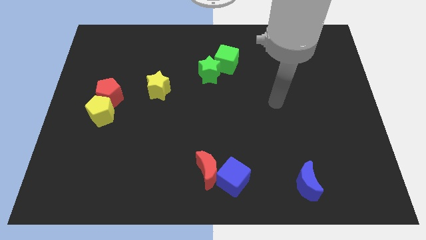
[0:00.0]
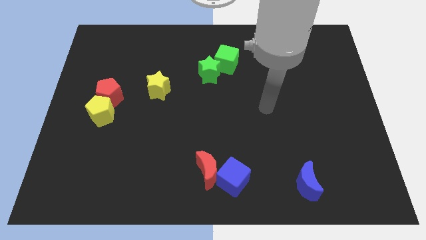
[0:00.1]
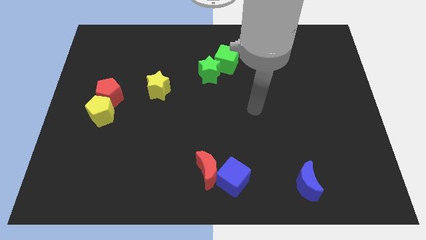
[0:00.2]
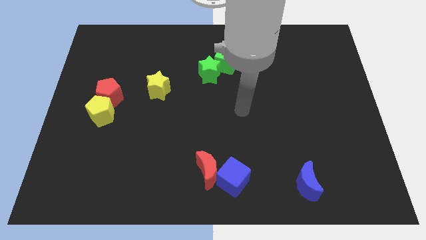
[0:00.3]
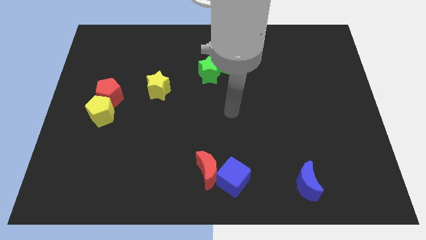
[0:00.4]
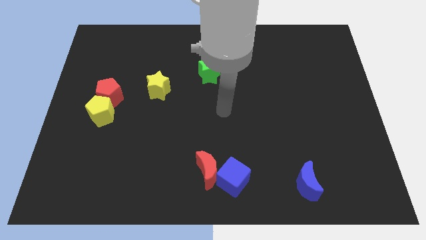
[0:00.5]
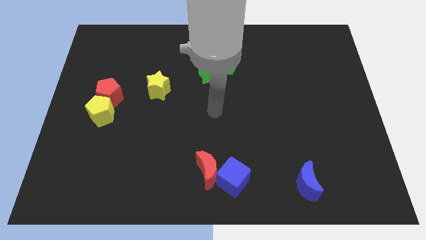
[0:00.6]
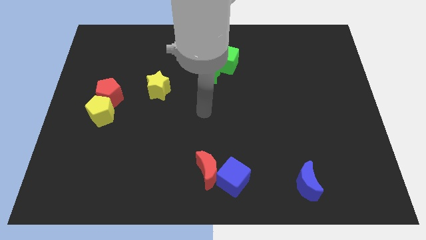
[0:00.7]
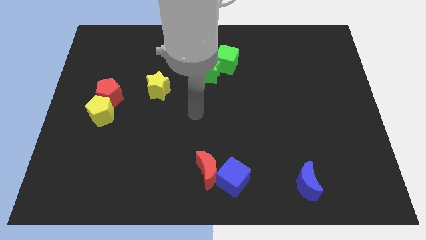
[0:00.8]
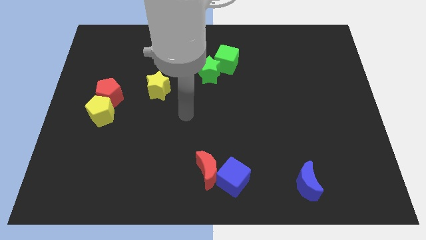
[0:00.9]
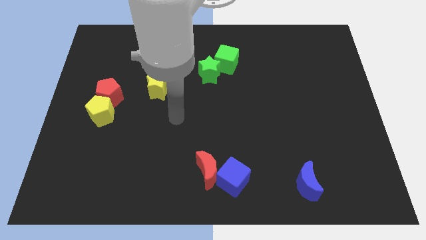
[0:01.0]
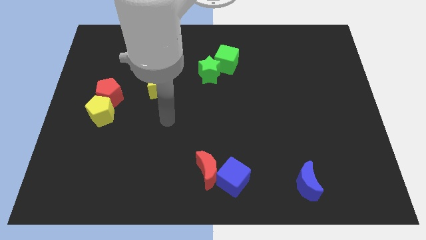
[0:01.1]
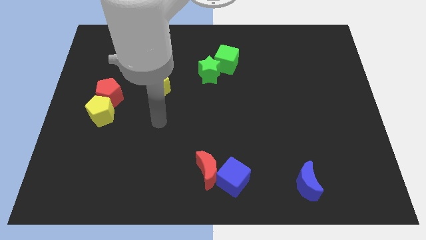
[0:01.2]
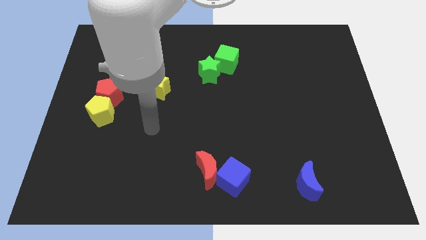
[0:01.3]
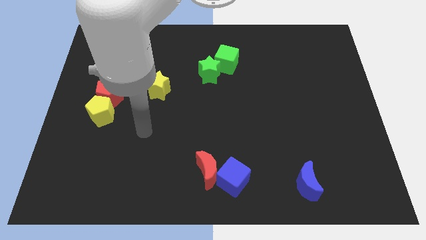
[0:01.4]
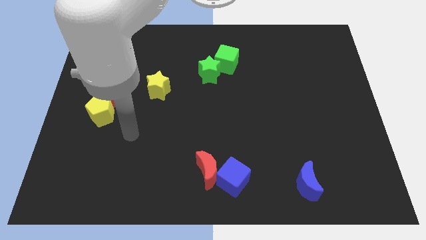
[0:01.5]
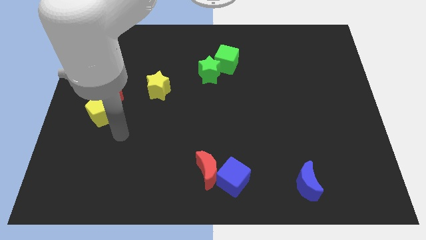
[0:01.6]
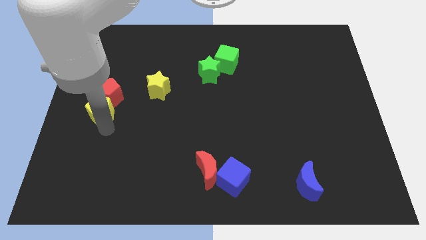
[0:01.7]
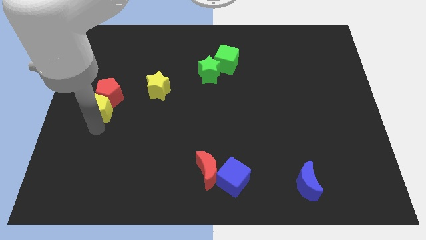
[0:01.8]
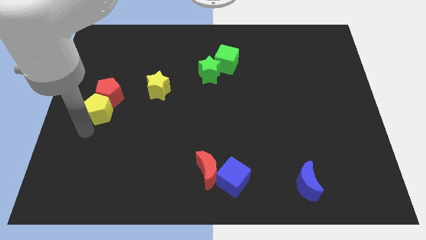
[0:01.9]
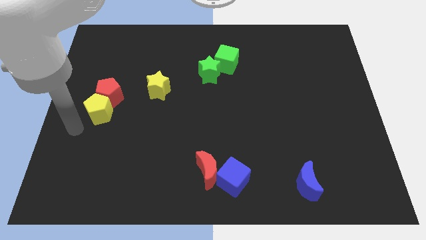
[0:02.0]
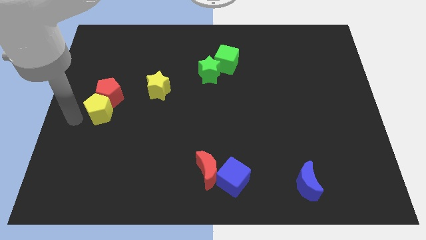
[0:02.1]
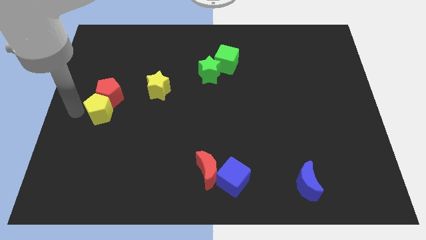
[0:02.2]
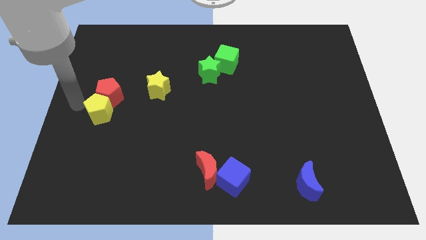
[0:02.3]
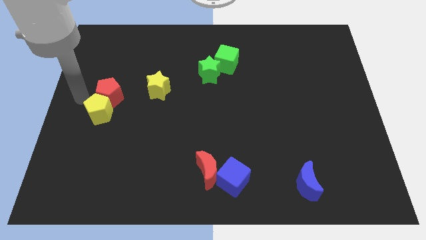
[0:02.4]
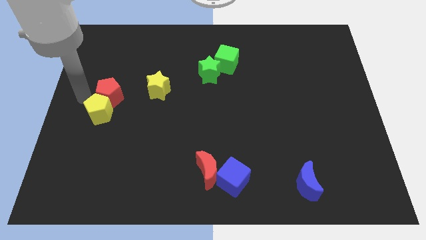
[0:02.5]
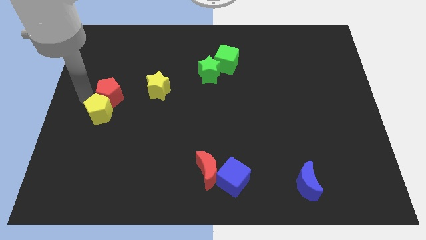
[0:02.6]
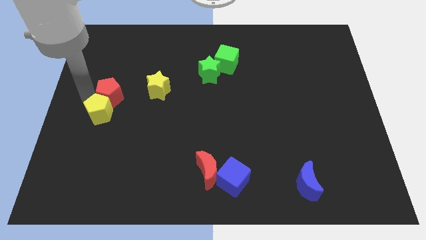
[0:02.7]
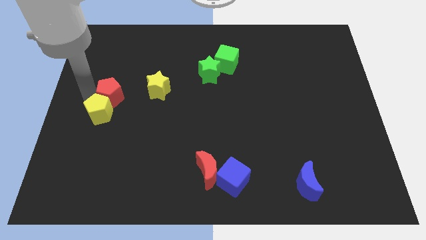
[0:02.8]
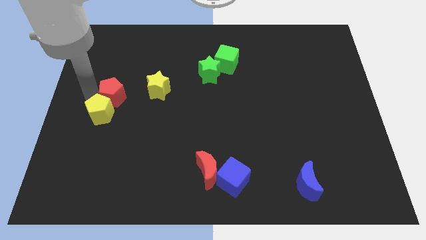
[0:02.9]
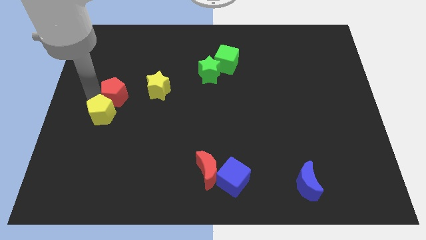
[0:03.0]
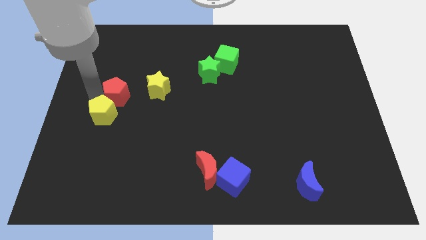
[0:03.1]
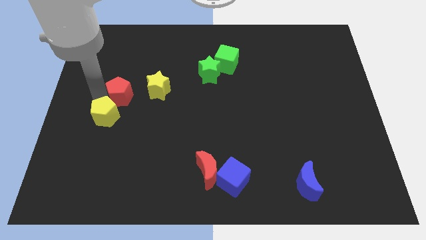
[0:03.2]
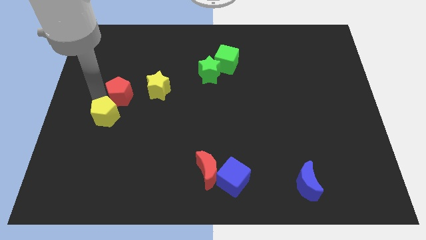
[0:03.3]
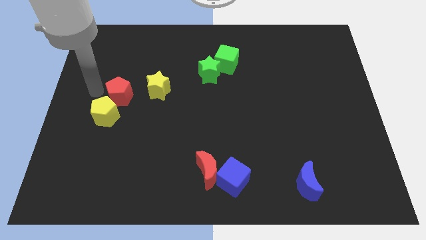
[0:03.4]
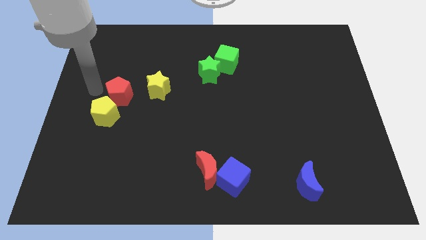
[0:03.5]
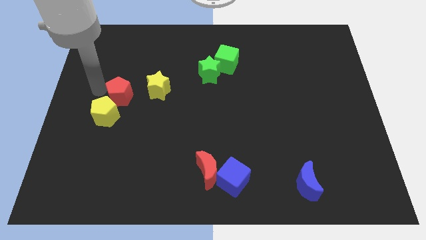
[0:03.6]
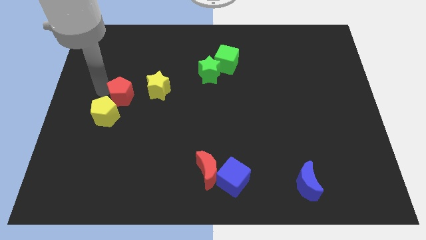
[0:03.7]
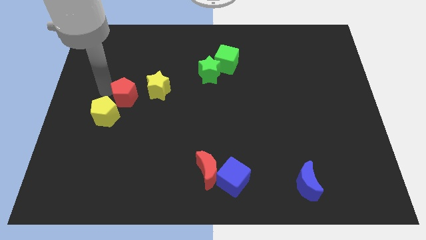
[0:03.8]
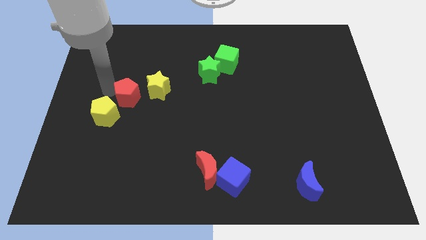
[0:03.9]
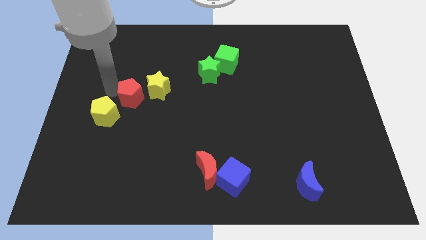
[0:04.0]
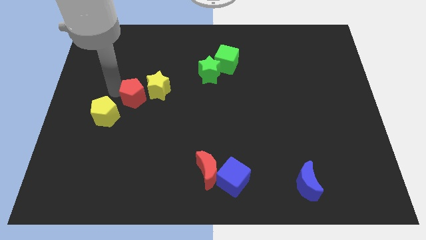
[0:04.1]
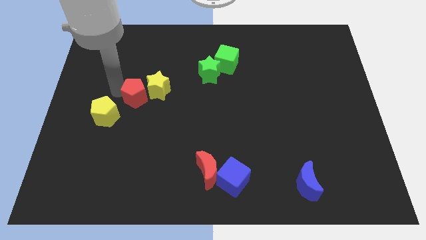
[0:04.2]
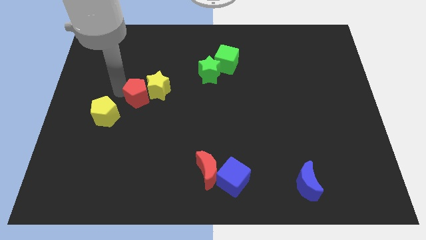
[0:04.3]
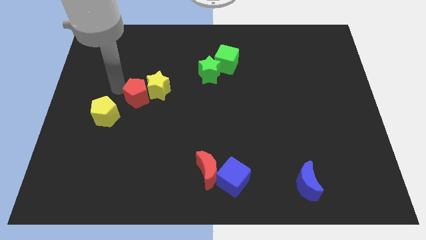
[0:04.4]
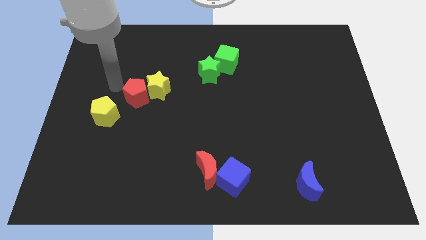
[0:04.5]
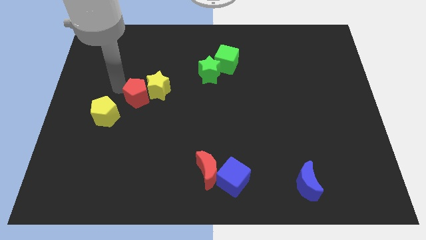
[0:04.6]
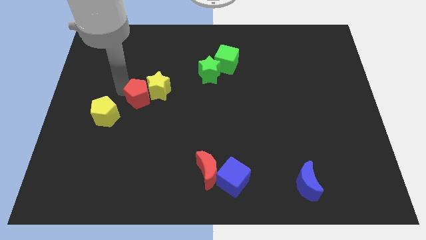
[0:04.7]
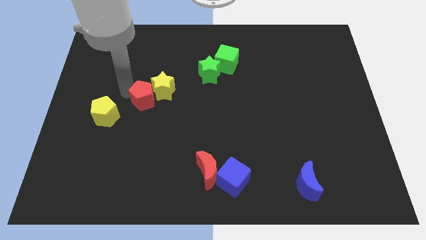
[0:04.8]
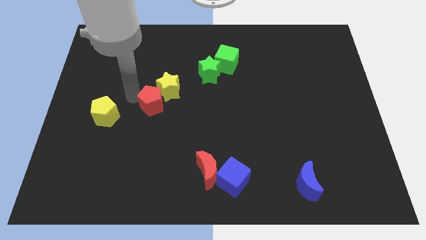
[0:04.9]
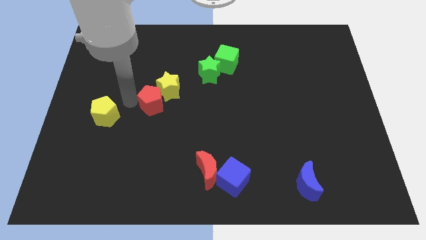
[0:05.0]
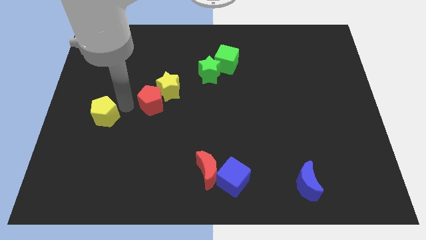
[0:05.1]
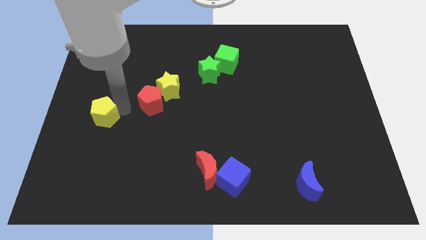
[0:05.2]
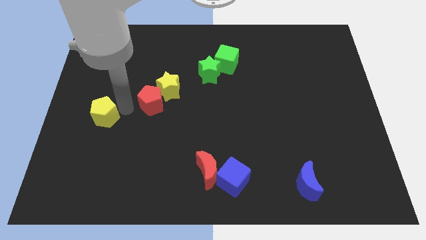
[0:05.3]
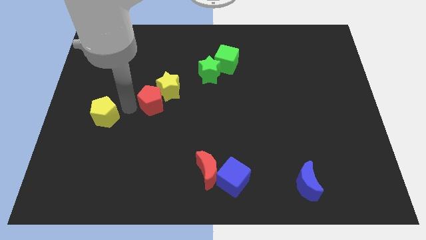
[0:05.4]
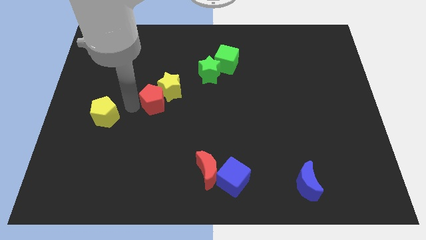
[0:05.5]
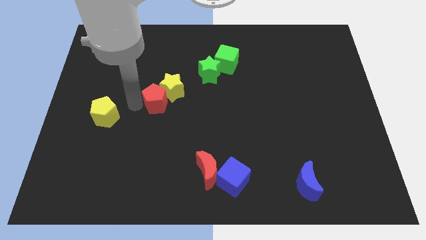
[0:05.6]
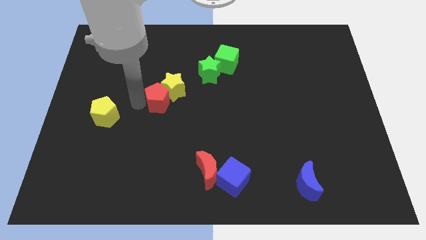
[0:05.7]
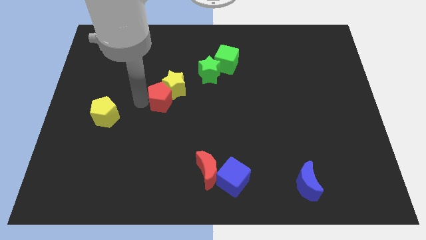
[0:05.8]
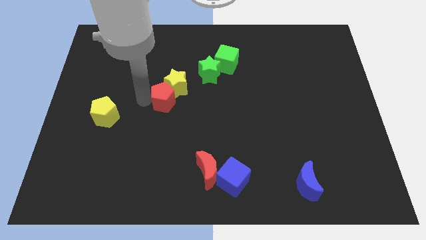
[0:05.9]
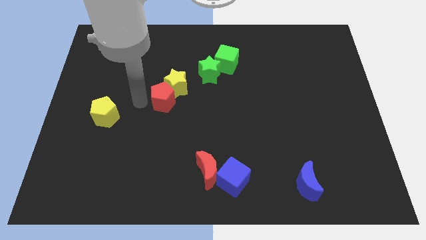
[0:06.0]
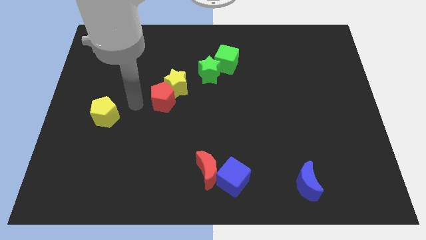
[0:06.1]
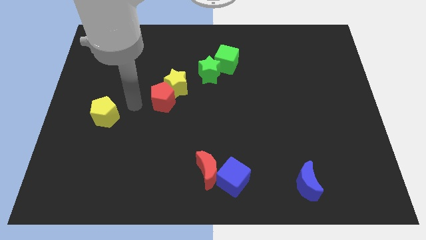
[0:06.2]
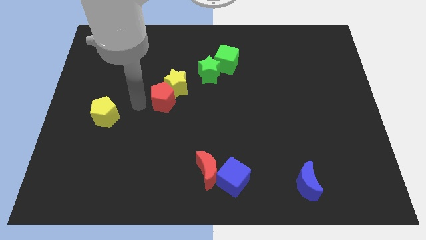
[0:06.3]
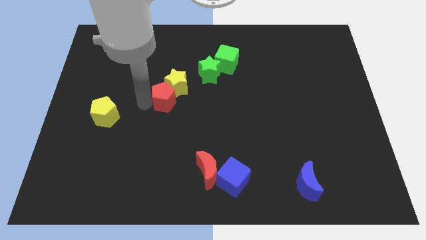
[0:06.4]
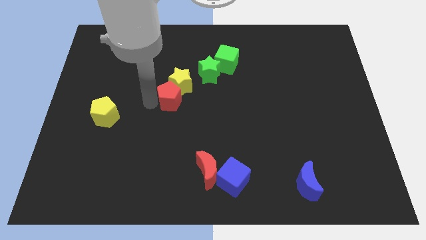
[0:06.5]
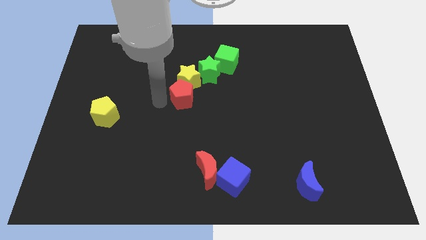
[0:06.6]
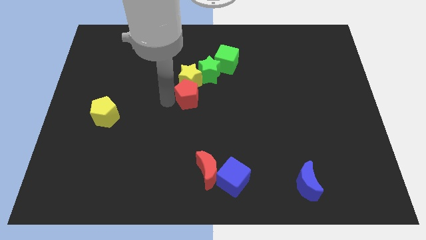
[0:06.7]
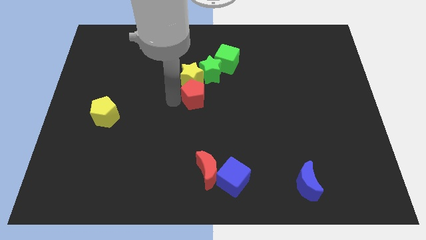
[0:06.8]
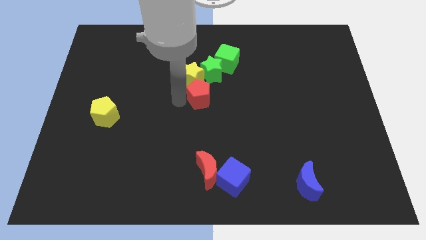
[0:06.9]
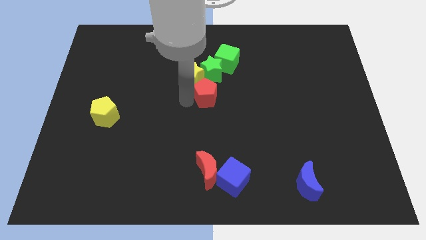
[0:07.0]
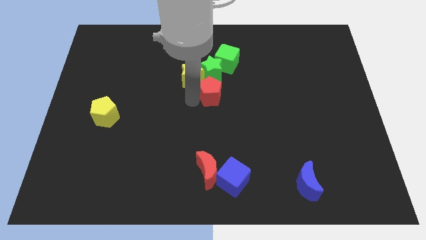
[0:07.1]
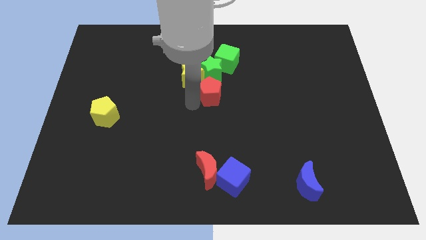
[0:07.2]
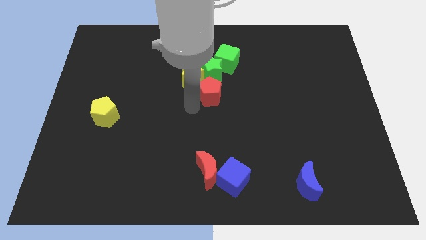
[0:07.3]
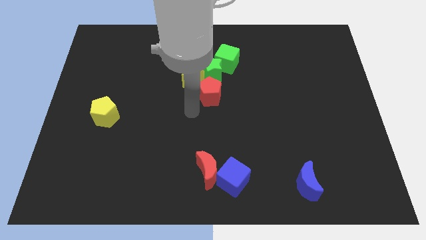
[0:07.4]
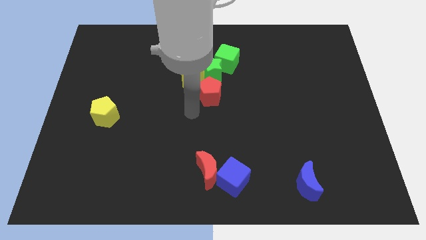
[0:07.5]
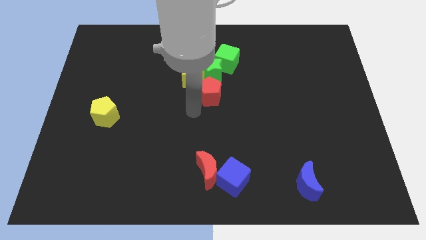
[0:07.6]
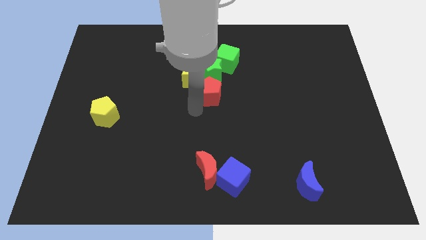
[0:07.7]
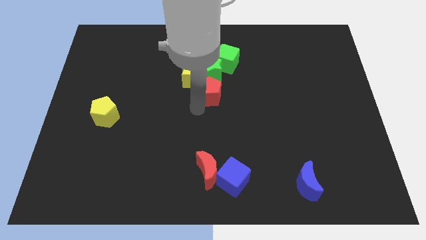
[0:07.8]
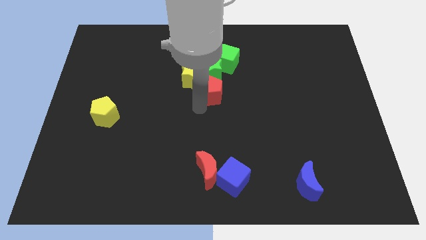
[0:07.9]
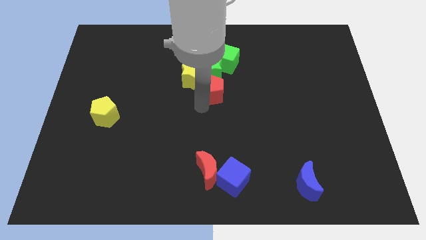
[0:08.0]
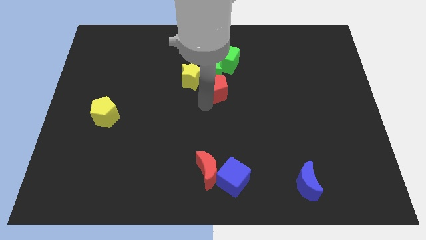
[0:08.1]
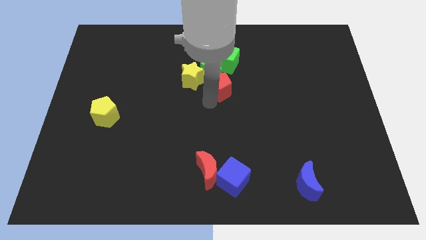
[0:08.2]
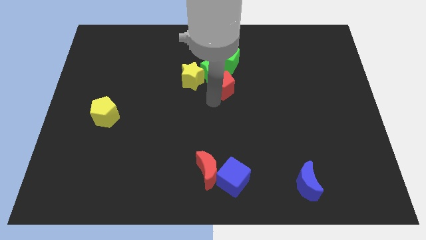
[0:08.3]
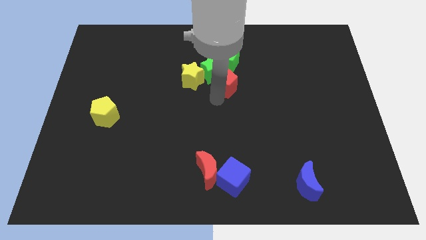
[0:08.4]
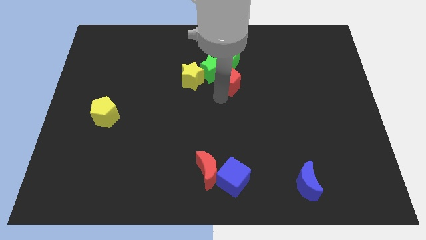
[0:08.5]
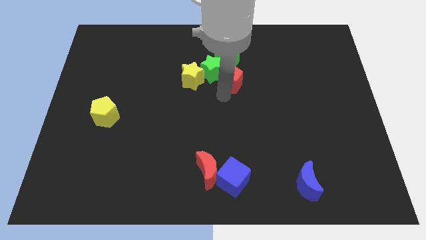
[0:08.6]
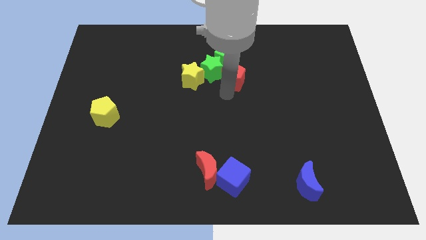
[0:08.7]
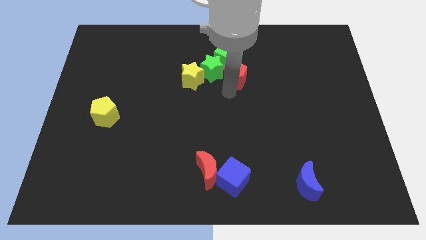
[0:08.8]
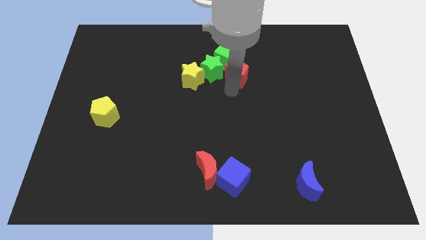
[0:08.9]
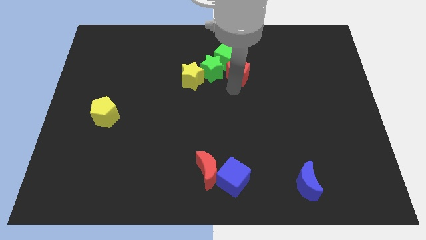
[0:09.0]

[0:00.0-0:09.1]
push the red pentagon close to the green cube
